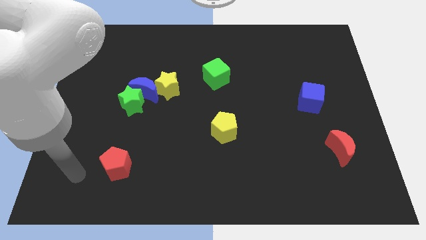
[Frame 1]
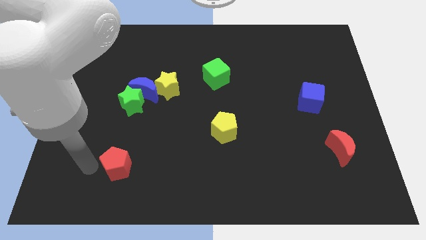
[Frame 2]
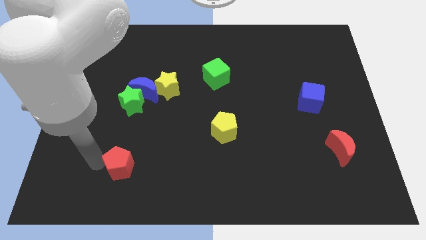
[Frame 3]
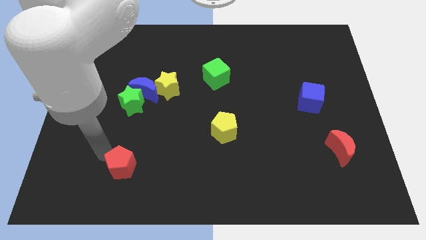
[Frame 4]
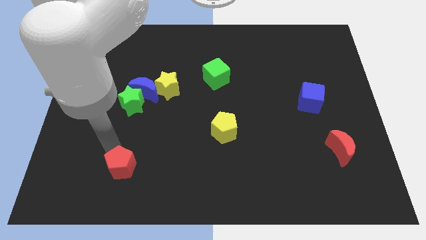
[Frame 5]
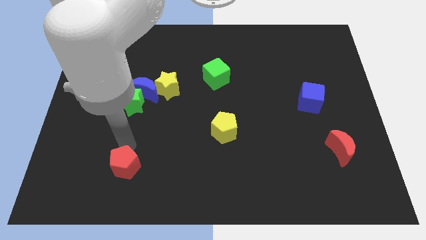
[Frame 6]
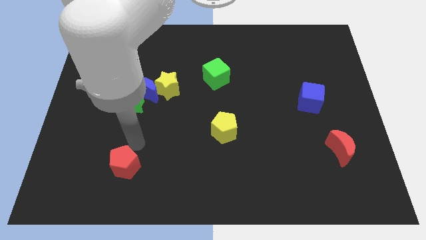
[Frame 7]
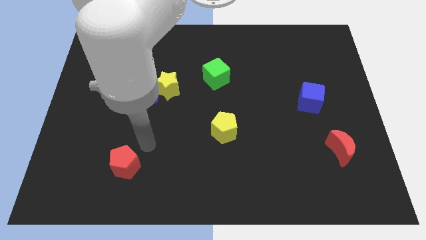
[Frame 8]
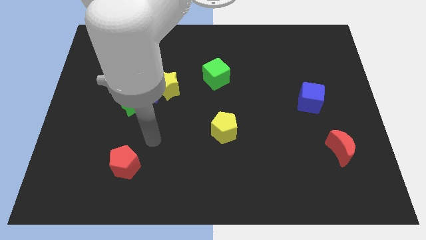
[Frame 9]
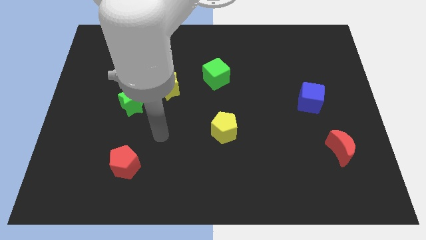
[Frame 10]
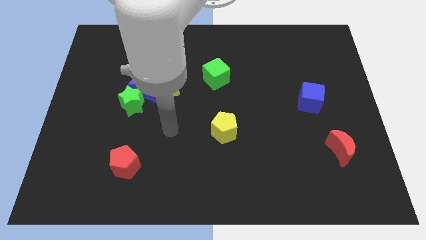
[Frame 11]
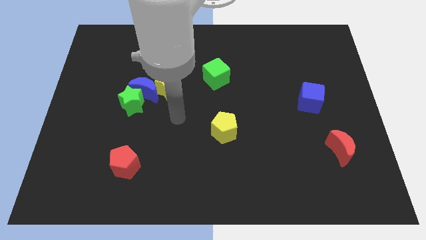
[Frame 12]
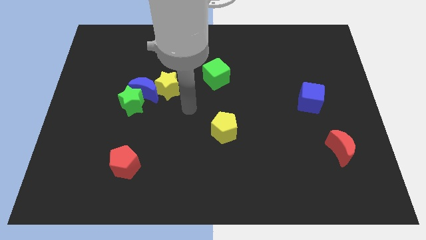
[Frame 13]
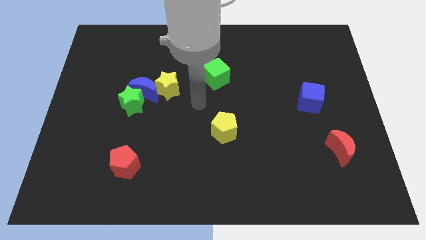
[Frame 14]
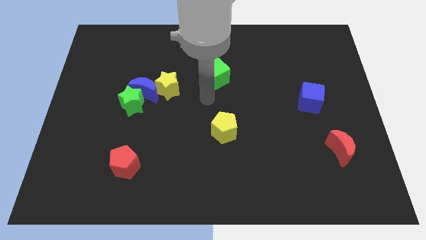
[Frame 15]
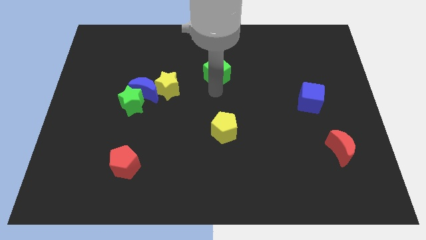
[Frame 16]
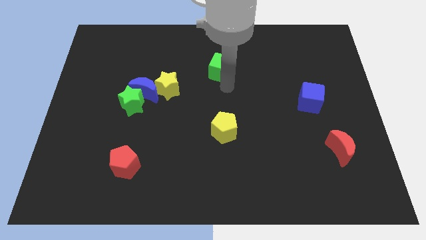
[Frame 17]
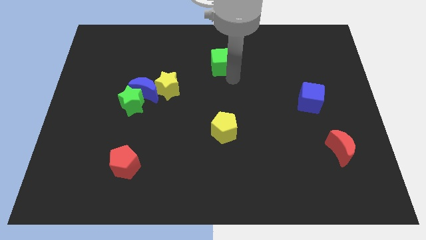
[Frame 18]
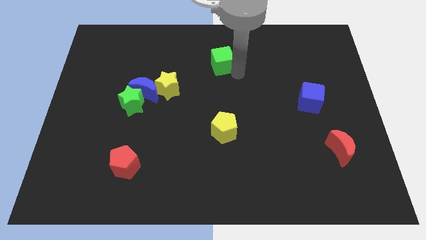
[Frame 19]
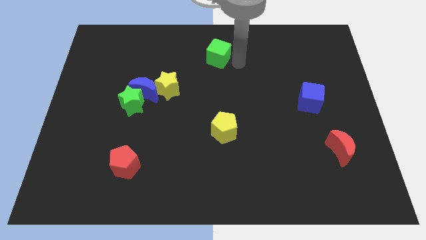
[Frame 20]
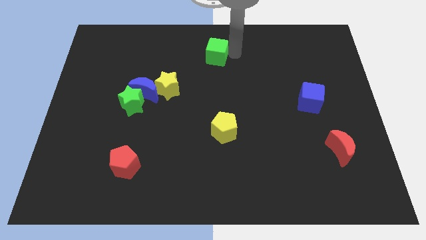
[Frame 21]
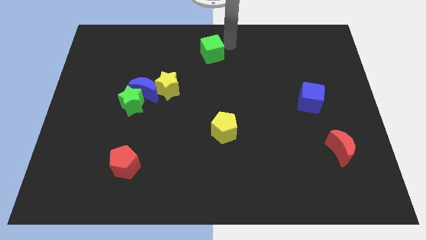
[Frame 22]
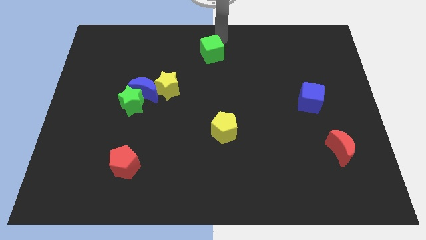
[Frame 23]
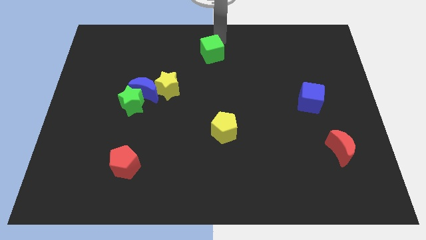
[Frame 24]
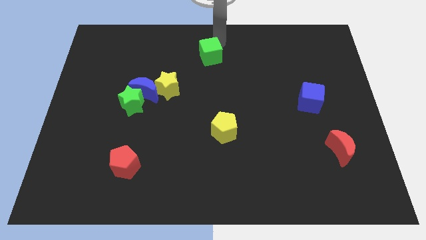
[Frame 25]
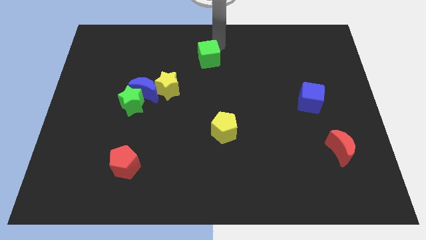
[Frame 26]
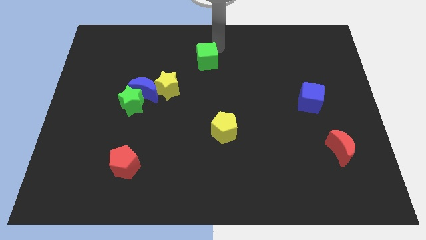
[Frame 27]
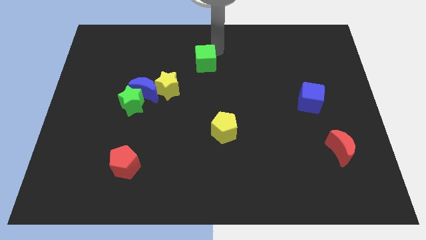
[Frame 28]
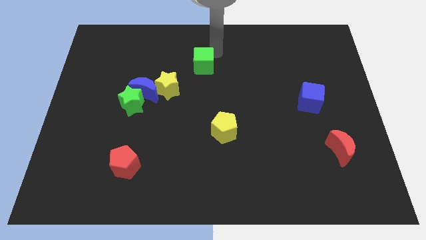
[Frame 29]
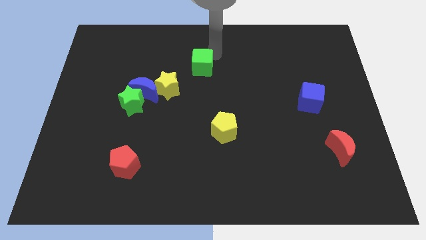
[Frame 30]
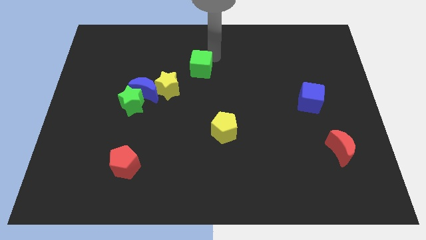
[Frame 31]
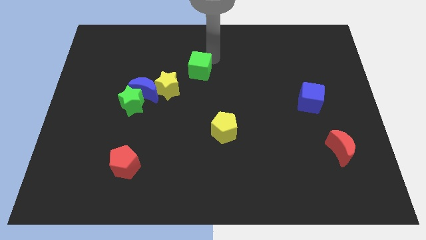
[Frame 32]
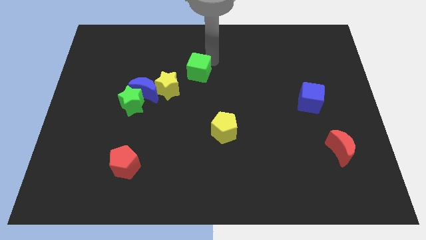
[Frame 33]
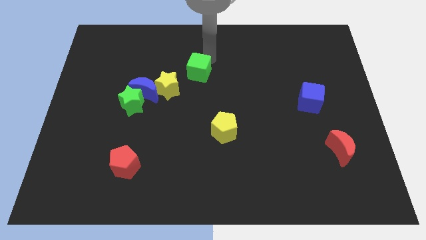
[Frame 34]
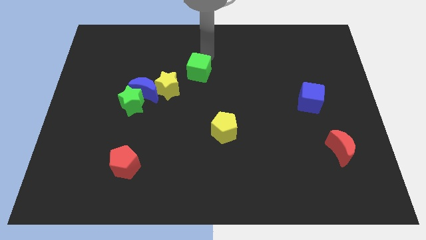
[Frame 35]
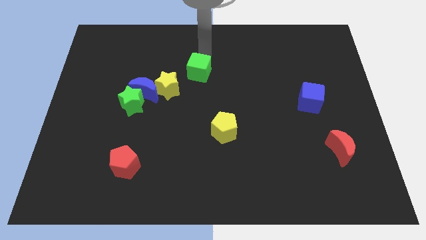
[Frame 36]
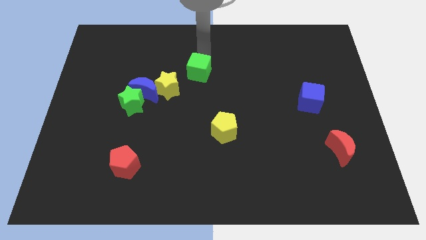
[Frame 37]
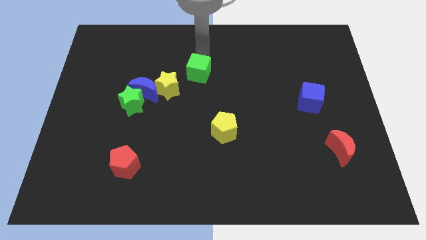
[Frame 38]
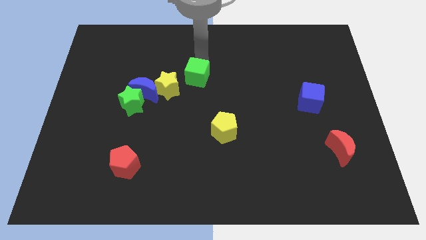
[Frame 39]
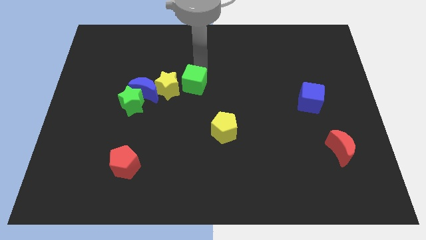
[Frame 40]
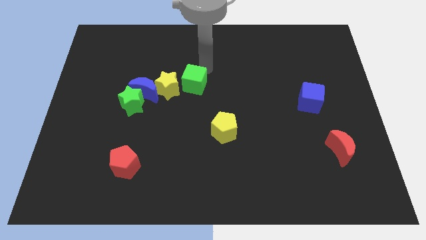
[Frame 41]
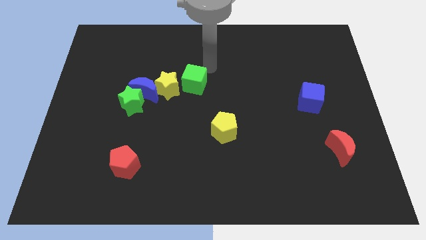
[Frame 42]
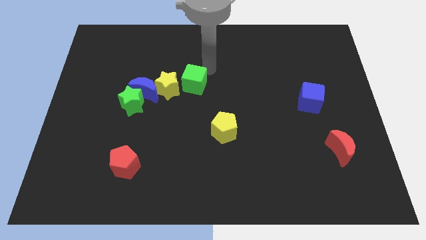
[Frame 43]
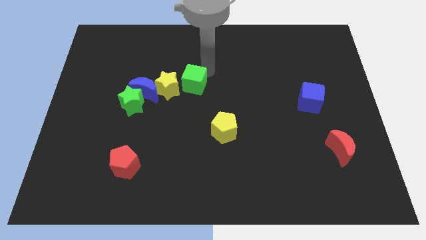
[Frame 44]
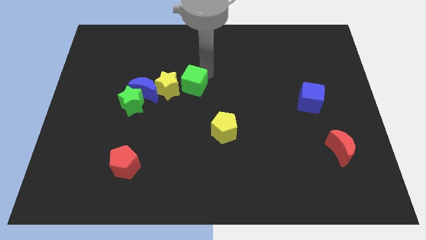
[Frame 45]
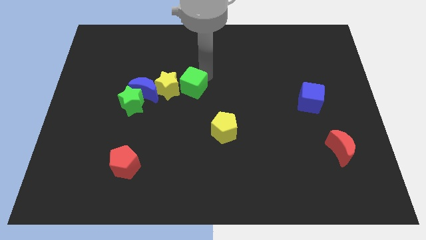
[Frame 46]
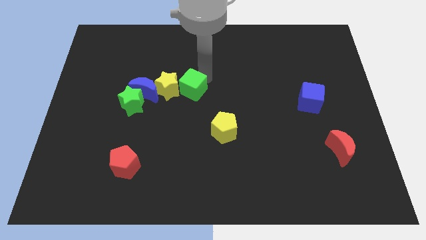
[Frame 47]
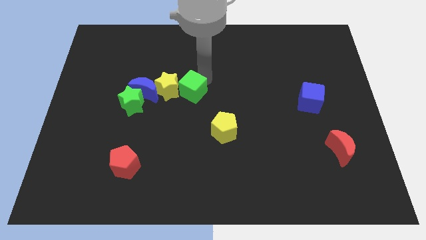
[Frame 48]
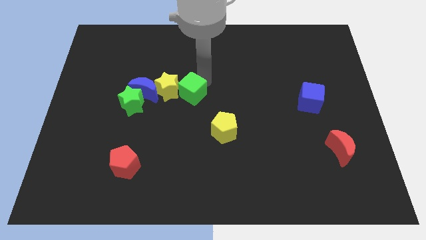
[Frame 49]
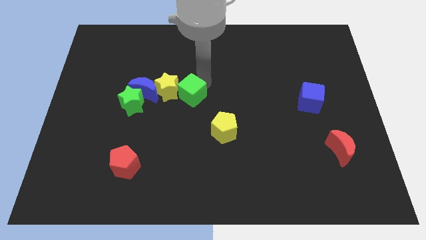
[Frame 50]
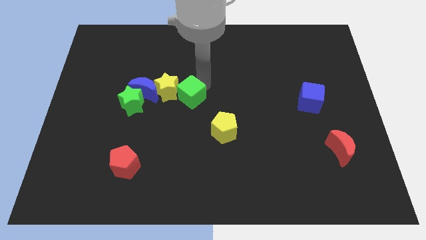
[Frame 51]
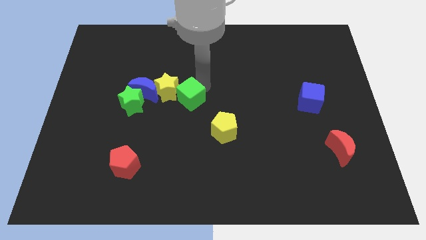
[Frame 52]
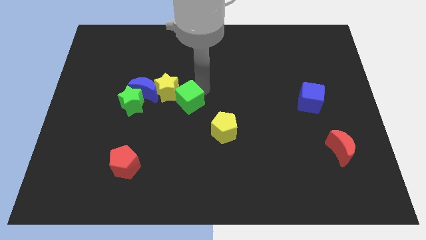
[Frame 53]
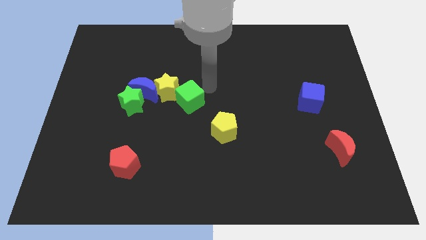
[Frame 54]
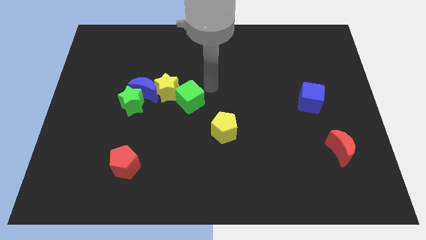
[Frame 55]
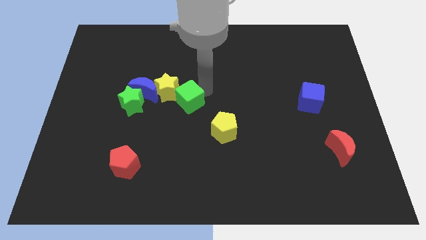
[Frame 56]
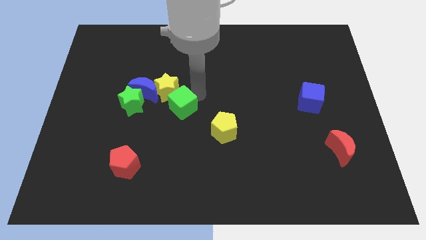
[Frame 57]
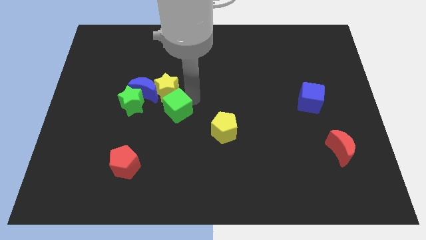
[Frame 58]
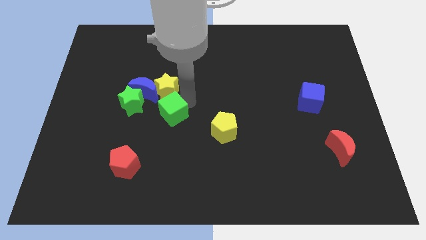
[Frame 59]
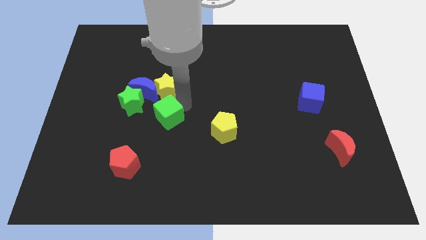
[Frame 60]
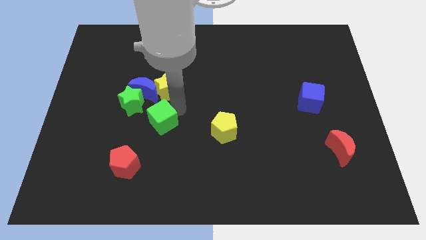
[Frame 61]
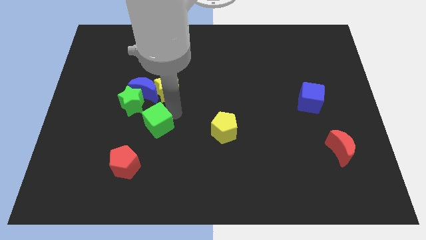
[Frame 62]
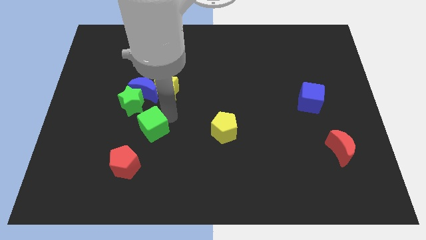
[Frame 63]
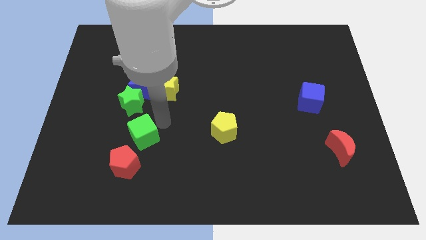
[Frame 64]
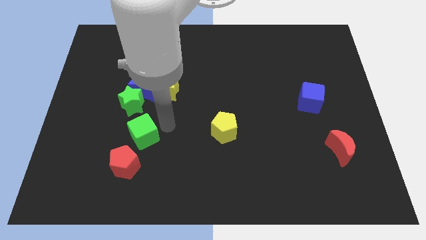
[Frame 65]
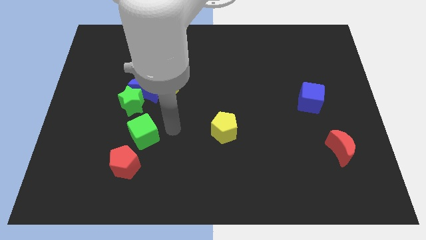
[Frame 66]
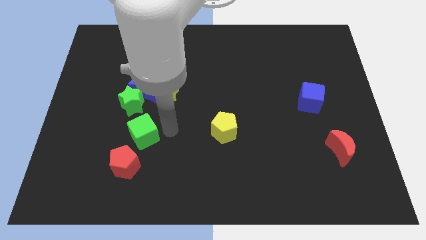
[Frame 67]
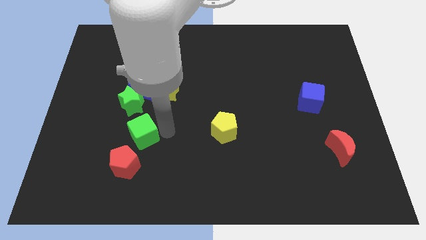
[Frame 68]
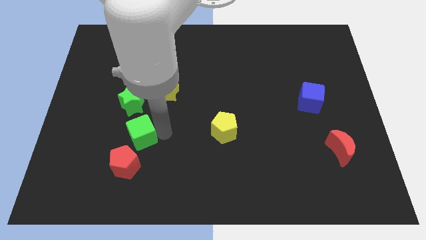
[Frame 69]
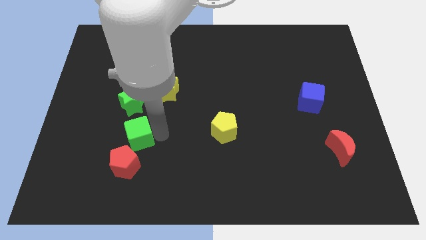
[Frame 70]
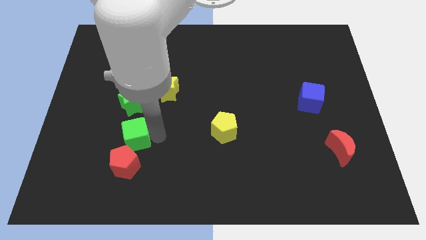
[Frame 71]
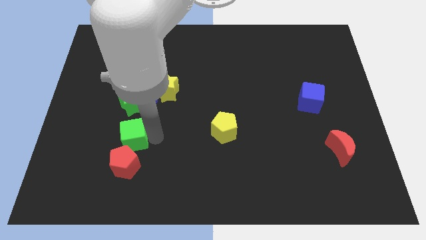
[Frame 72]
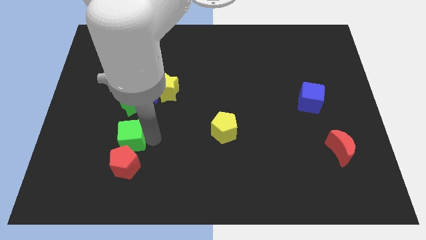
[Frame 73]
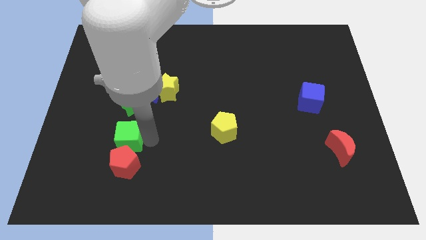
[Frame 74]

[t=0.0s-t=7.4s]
slide the green cube diagonally up and to the left of the red pentagon
